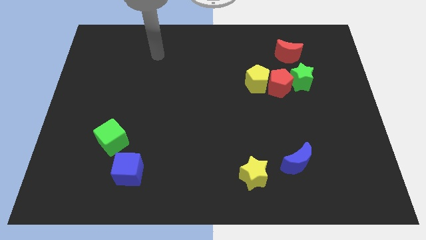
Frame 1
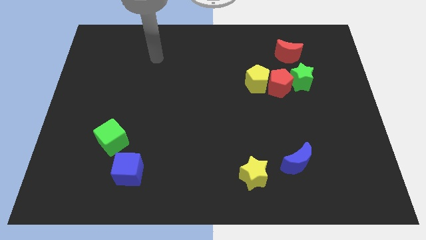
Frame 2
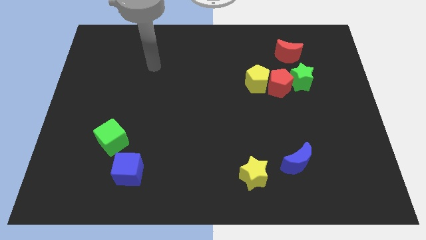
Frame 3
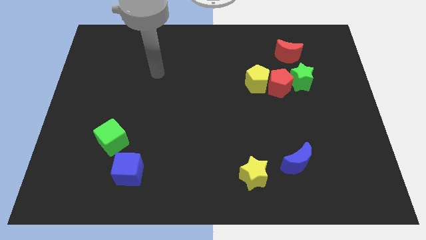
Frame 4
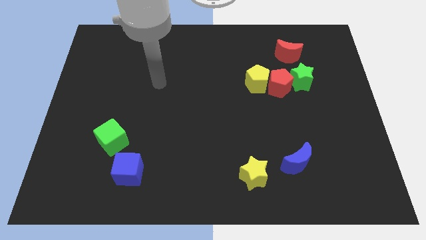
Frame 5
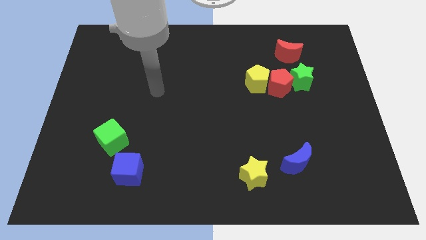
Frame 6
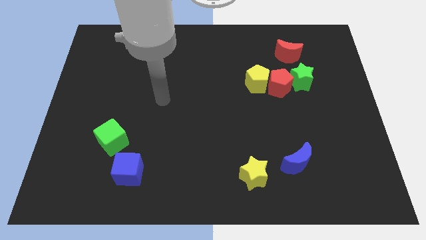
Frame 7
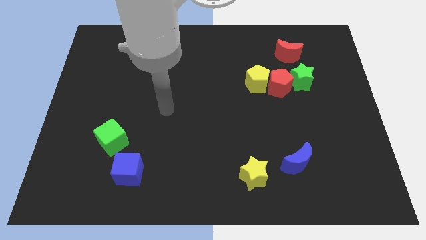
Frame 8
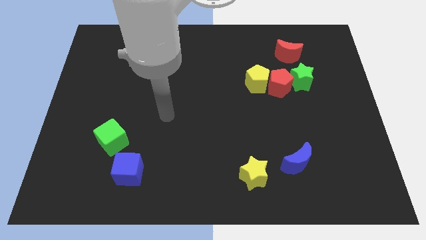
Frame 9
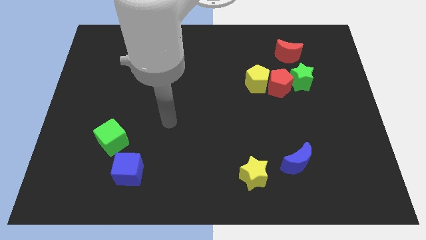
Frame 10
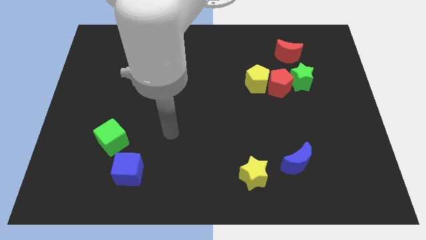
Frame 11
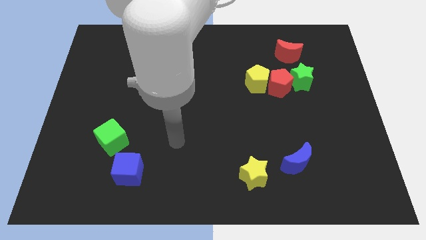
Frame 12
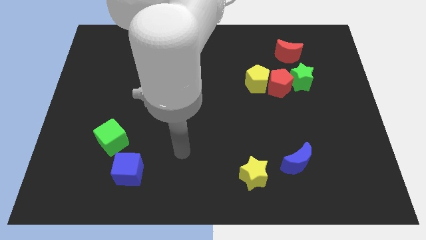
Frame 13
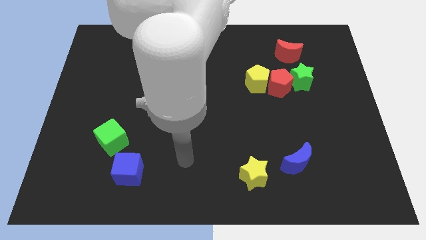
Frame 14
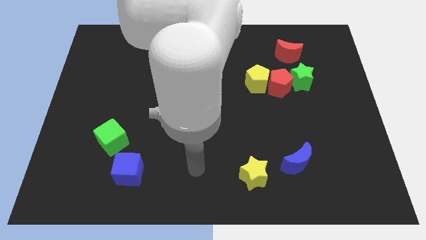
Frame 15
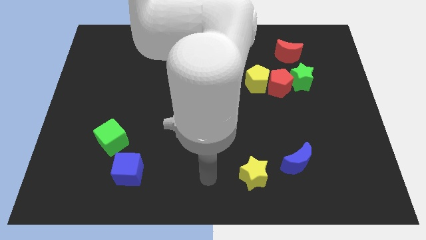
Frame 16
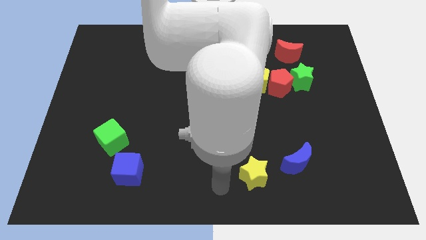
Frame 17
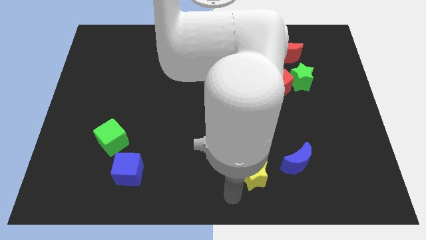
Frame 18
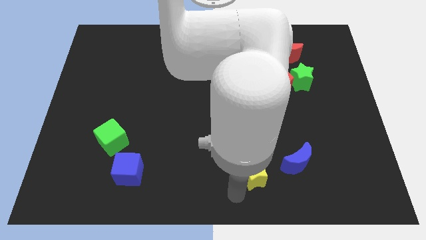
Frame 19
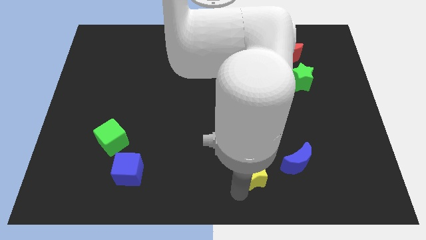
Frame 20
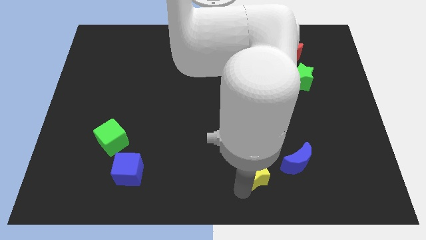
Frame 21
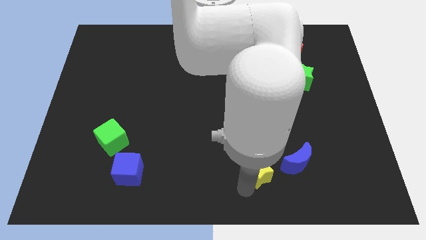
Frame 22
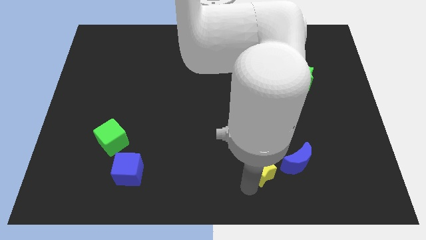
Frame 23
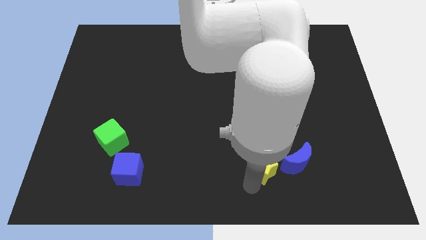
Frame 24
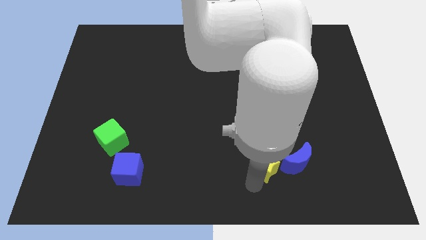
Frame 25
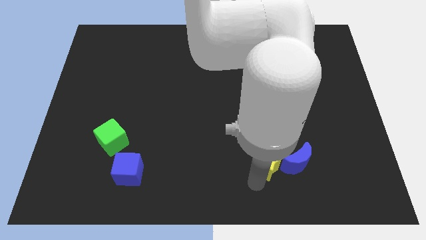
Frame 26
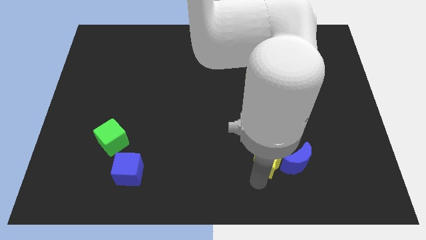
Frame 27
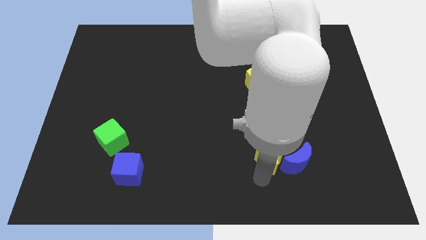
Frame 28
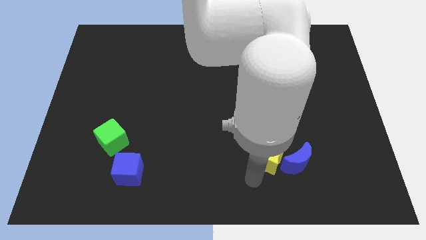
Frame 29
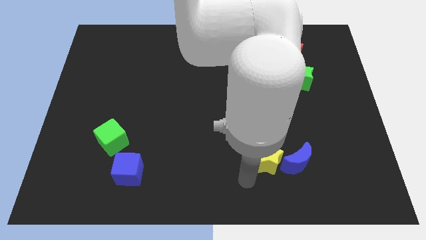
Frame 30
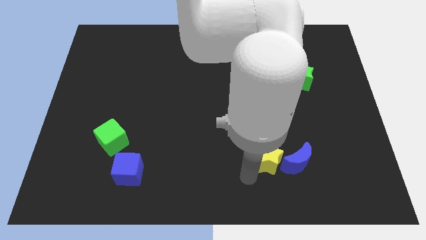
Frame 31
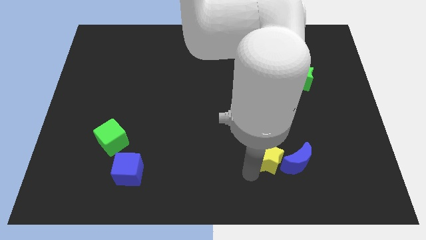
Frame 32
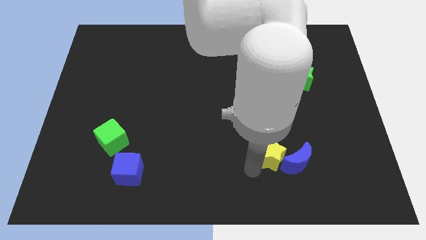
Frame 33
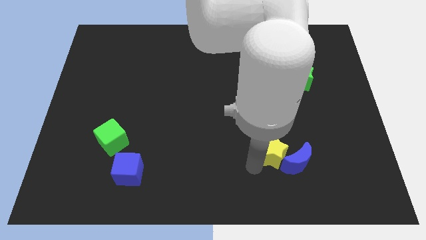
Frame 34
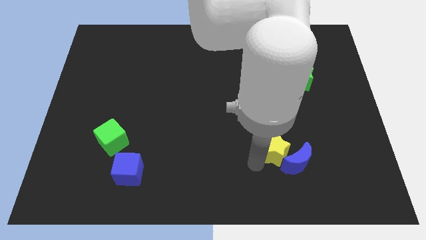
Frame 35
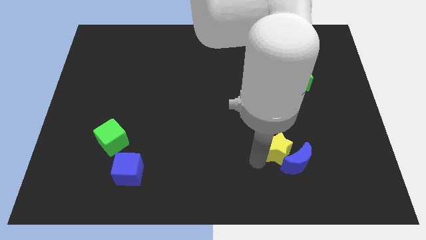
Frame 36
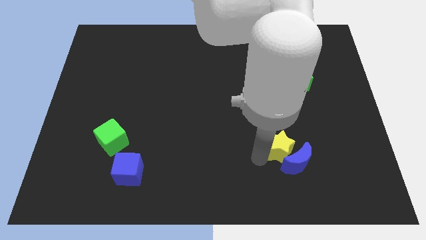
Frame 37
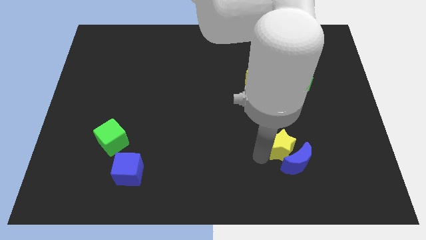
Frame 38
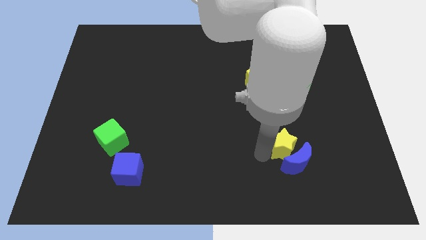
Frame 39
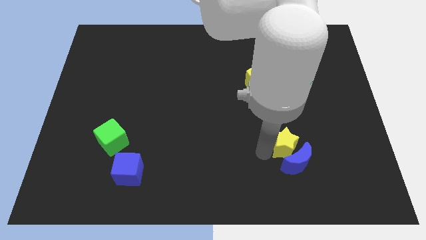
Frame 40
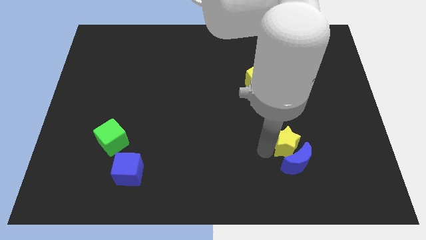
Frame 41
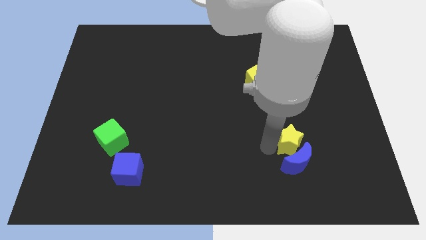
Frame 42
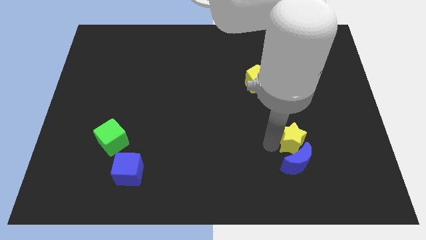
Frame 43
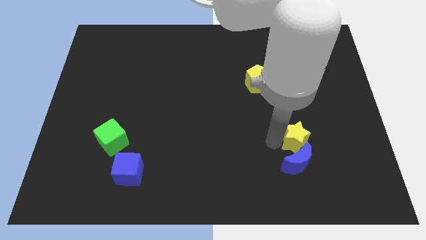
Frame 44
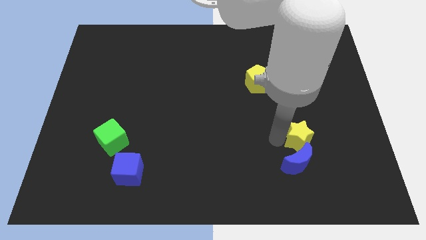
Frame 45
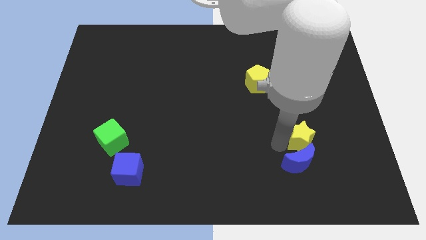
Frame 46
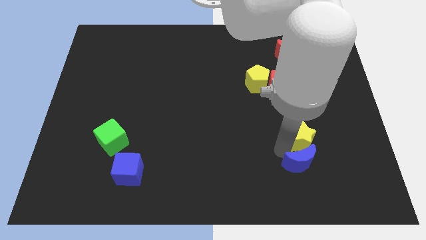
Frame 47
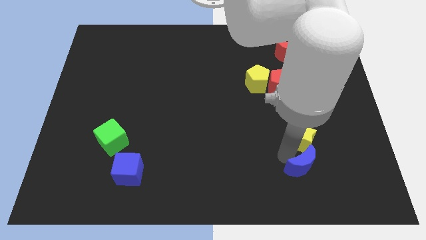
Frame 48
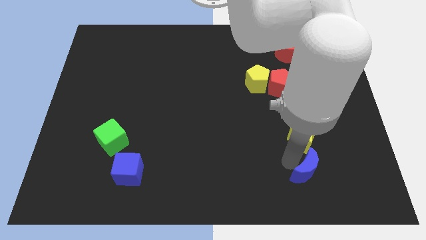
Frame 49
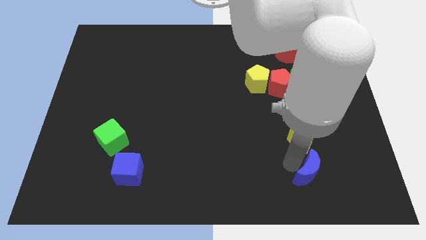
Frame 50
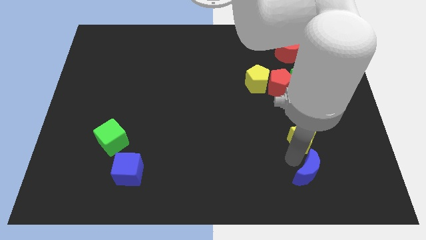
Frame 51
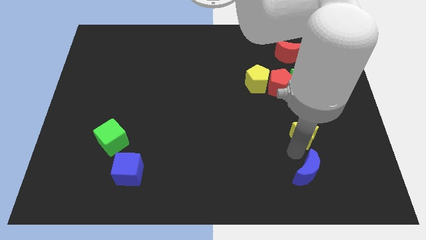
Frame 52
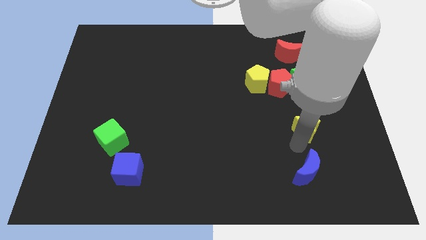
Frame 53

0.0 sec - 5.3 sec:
push the yellow star to the bottom of the green star

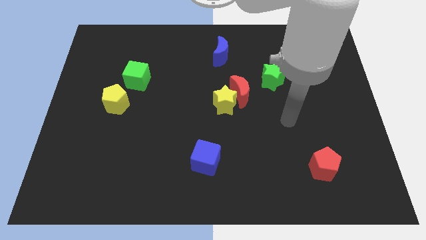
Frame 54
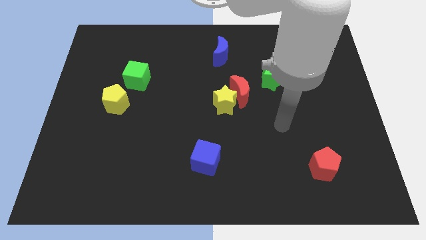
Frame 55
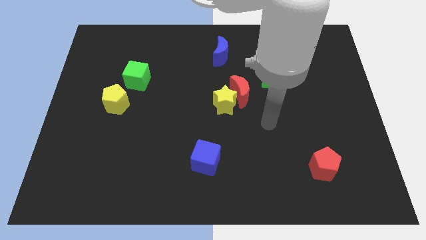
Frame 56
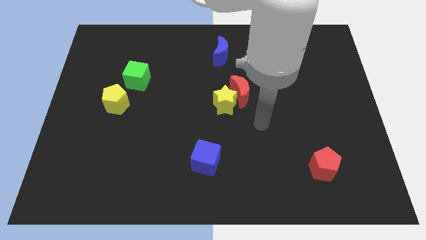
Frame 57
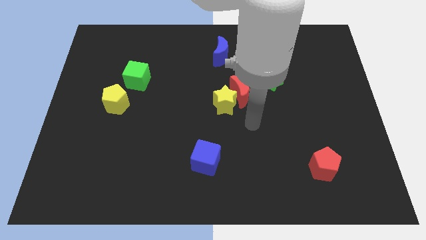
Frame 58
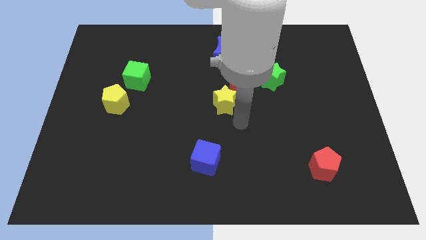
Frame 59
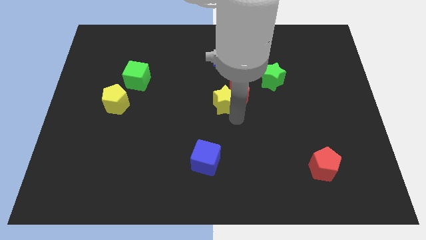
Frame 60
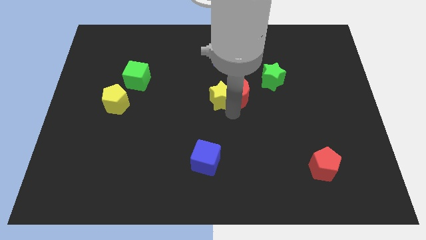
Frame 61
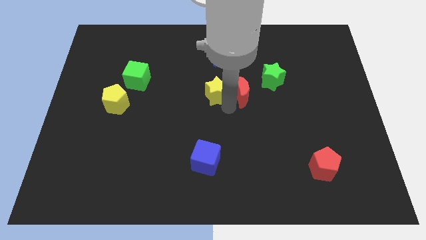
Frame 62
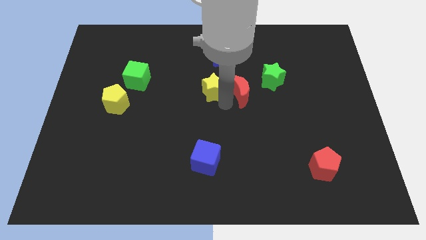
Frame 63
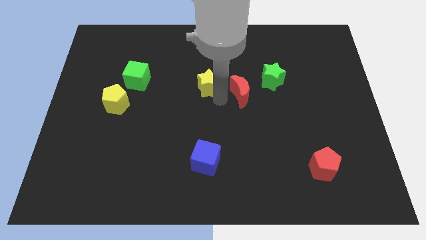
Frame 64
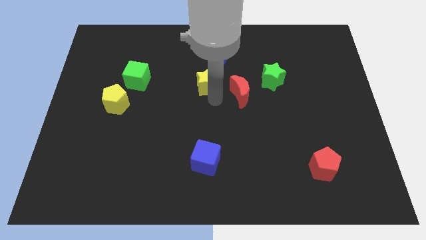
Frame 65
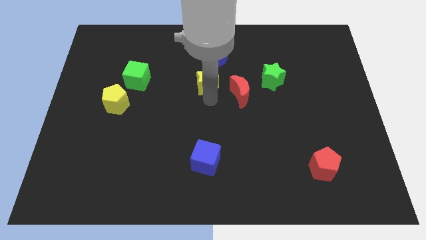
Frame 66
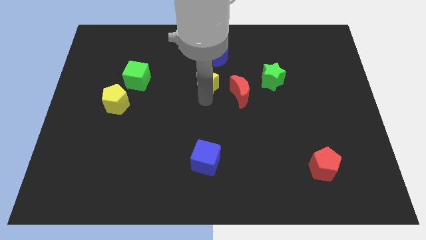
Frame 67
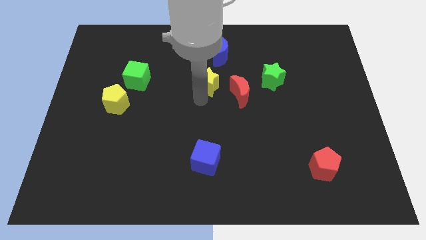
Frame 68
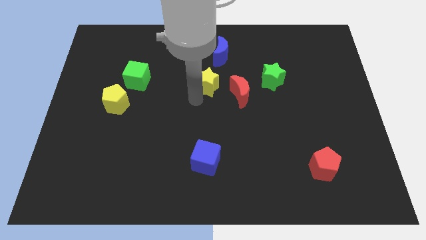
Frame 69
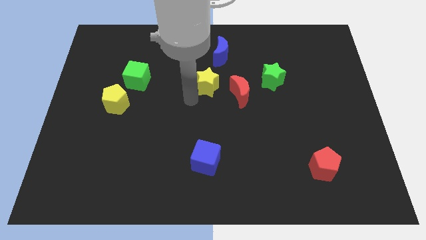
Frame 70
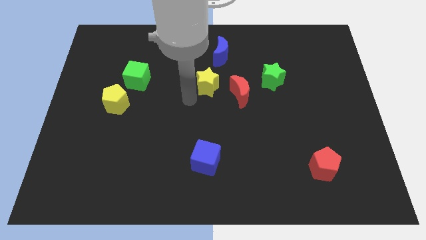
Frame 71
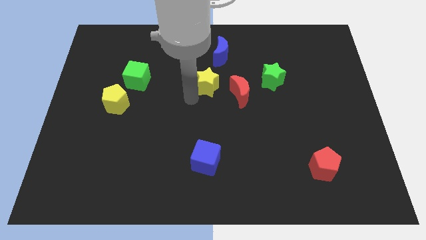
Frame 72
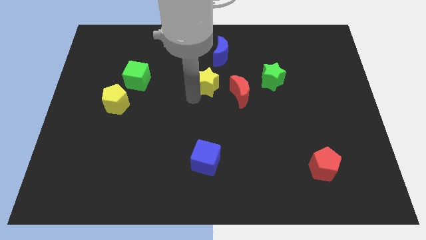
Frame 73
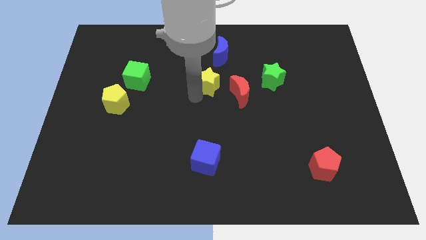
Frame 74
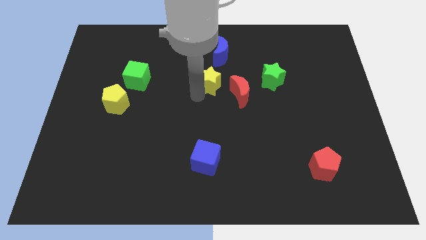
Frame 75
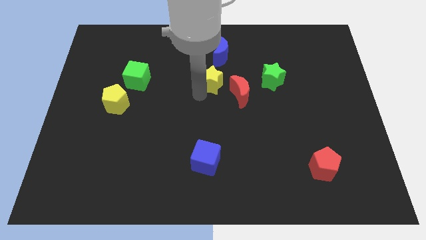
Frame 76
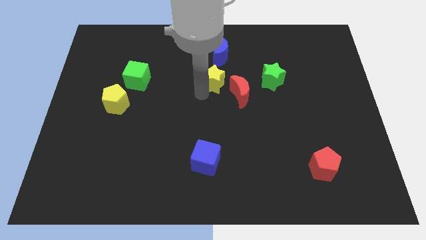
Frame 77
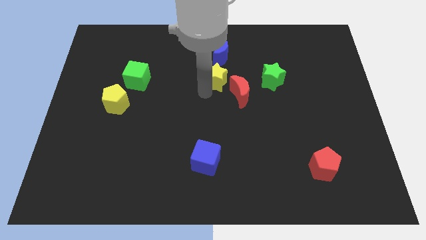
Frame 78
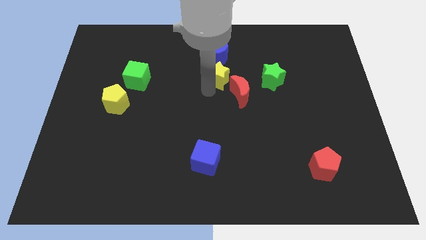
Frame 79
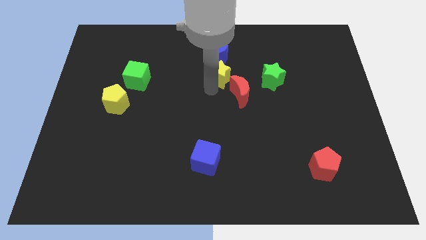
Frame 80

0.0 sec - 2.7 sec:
move the yellow star to the top side of the red moon
